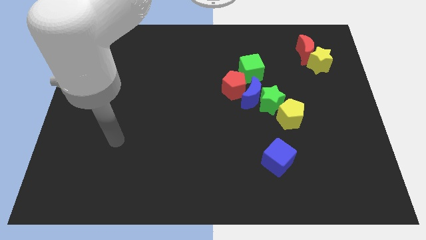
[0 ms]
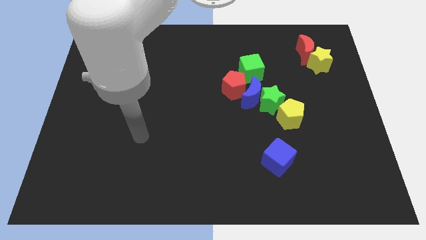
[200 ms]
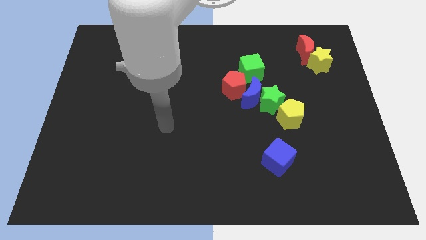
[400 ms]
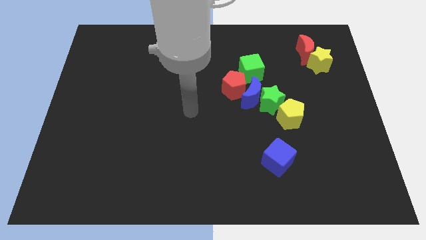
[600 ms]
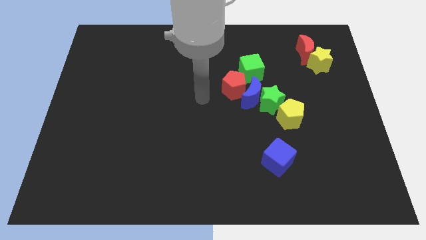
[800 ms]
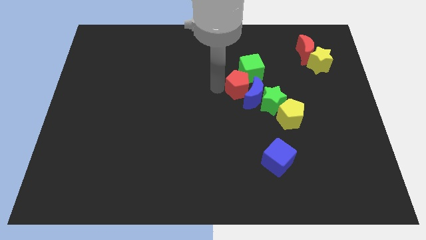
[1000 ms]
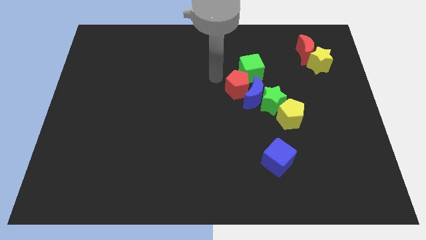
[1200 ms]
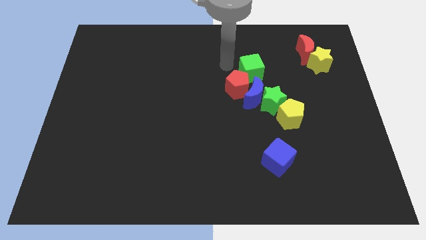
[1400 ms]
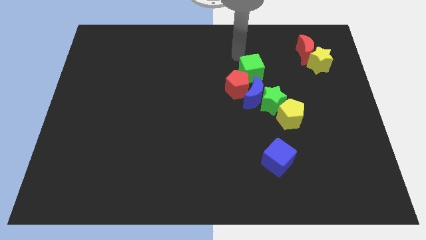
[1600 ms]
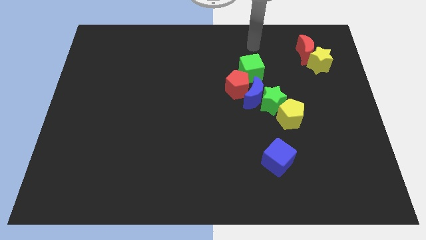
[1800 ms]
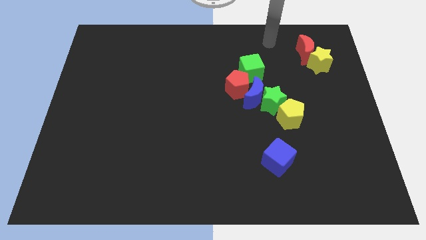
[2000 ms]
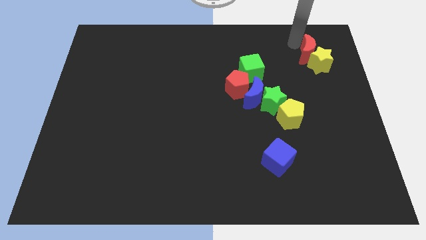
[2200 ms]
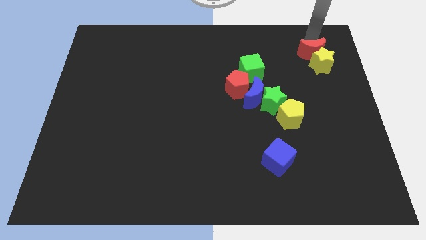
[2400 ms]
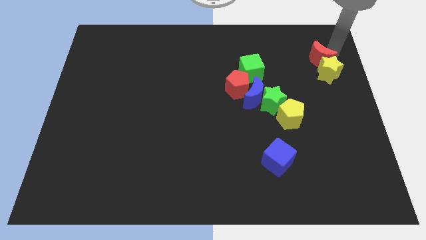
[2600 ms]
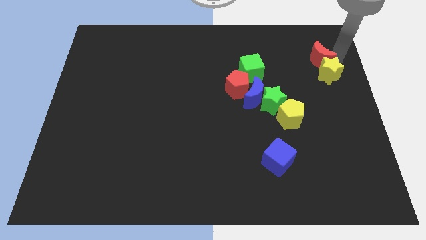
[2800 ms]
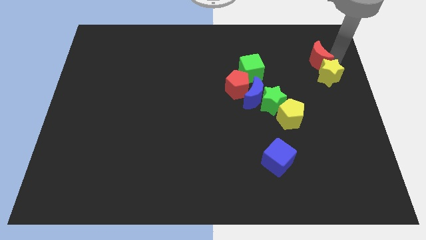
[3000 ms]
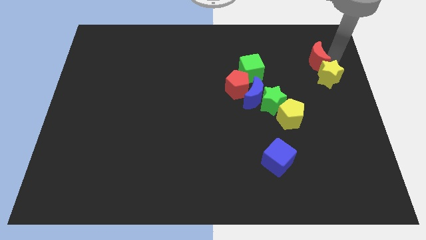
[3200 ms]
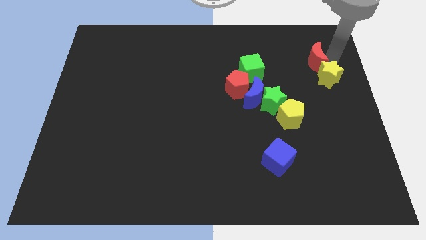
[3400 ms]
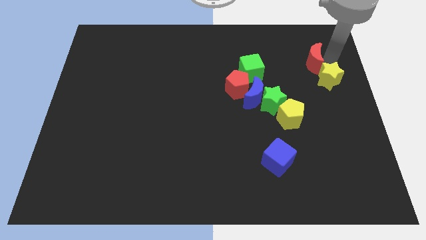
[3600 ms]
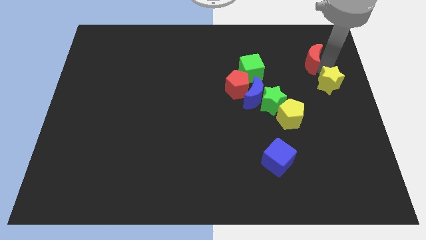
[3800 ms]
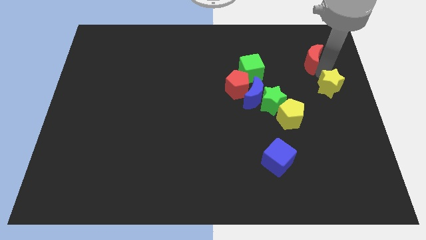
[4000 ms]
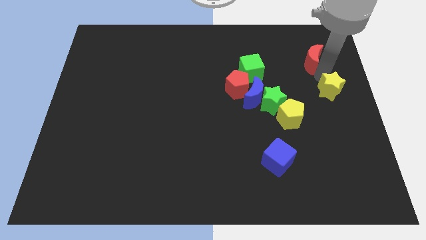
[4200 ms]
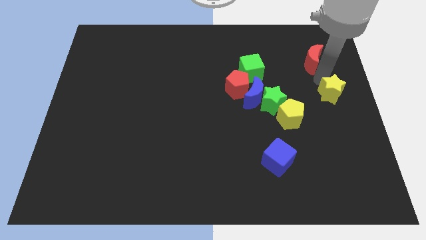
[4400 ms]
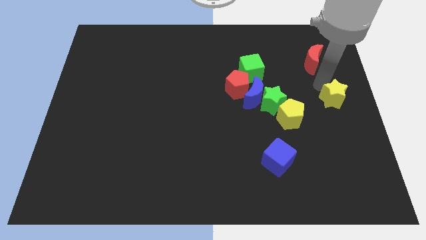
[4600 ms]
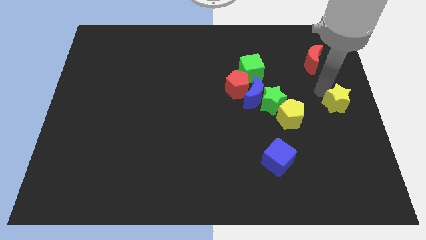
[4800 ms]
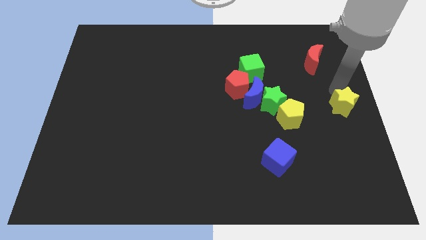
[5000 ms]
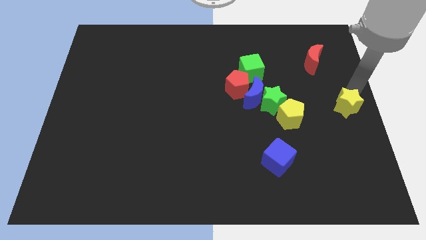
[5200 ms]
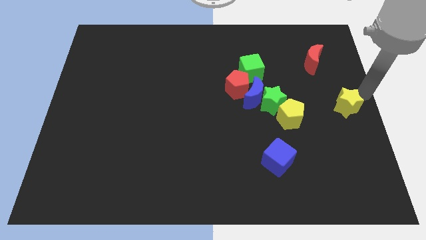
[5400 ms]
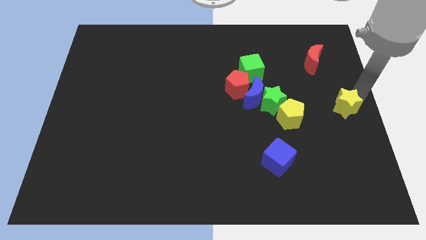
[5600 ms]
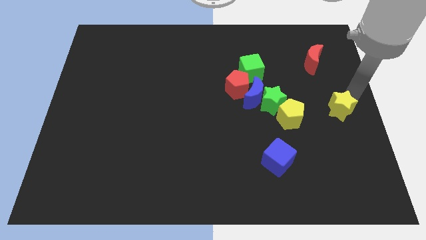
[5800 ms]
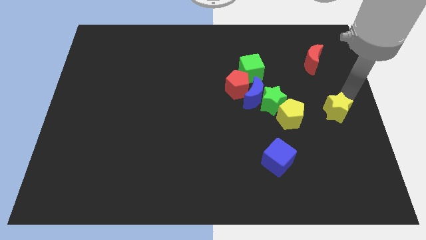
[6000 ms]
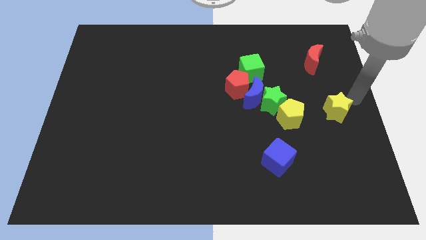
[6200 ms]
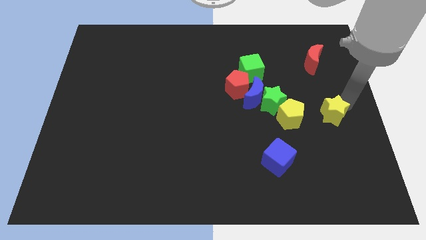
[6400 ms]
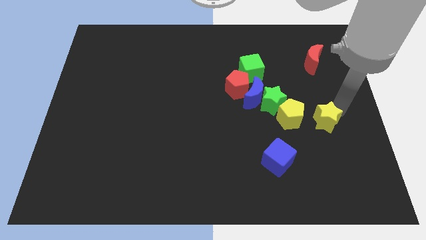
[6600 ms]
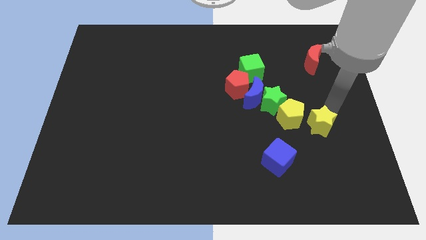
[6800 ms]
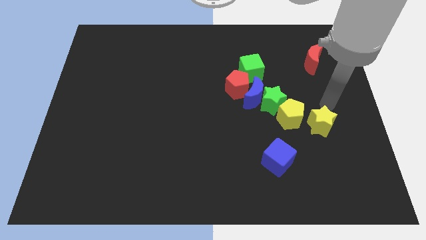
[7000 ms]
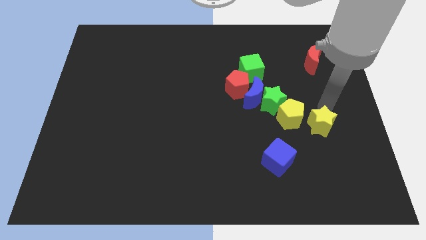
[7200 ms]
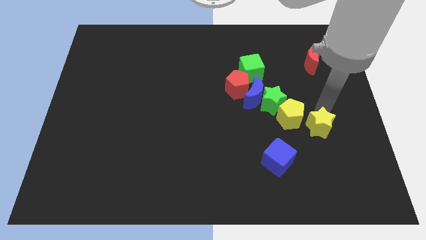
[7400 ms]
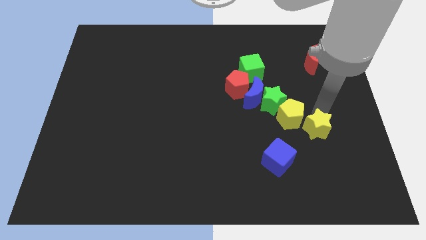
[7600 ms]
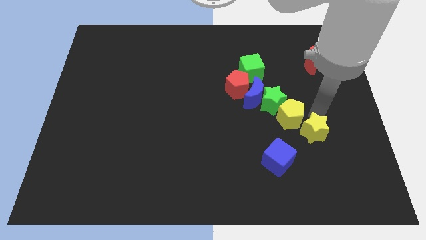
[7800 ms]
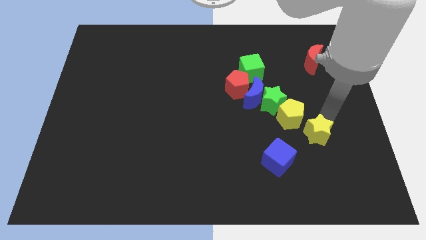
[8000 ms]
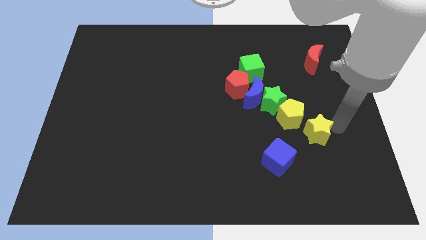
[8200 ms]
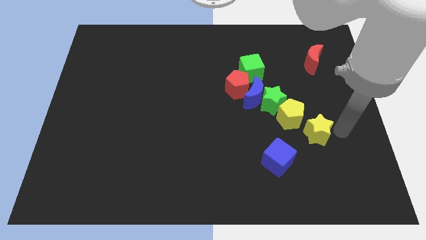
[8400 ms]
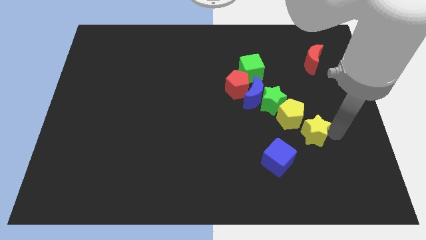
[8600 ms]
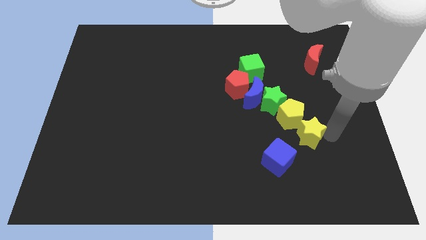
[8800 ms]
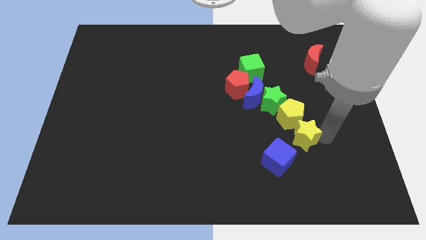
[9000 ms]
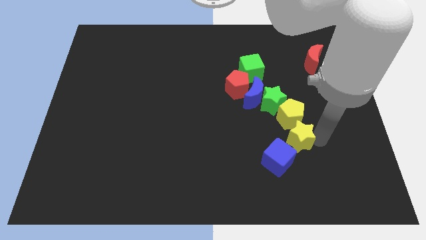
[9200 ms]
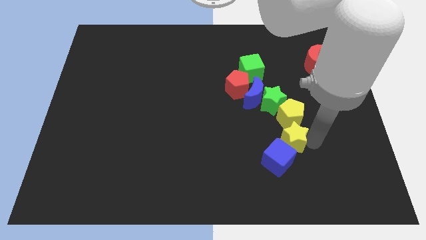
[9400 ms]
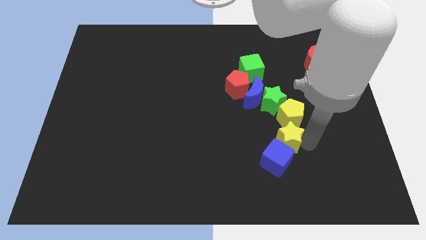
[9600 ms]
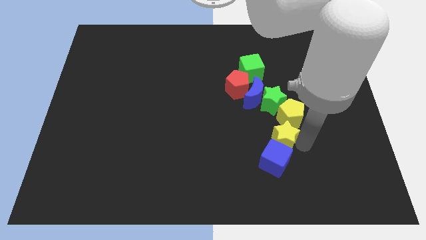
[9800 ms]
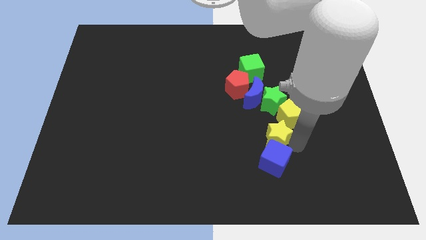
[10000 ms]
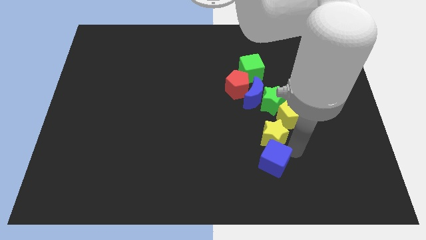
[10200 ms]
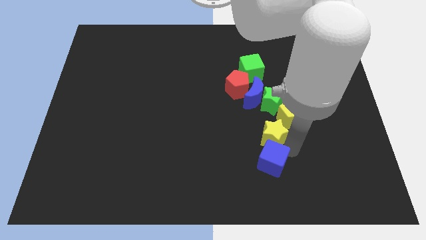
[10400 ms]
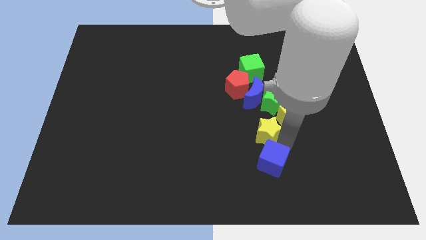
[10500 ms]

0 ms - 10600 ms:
slide the yellow star left of the yellow pentagon

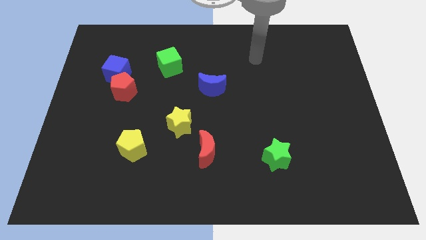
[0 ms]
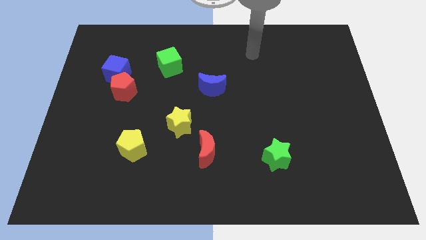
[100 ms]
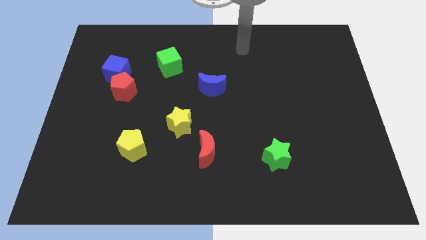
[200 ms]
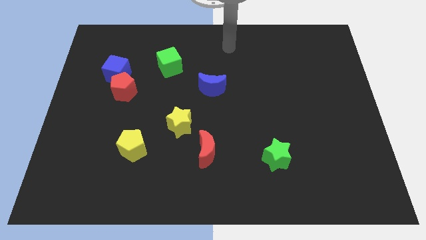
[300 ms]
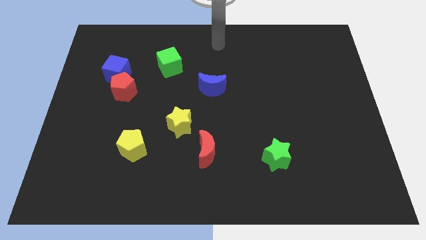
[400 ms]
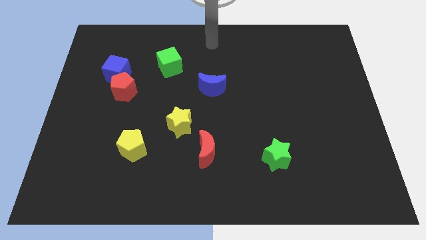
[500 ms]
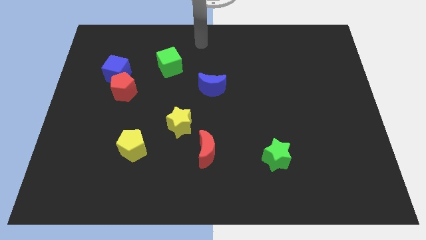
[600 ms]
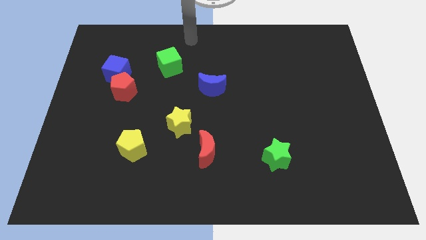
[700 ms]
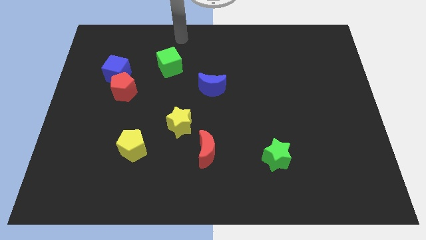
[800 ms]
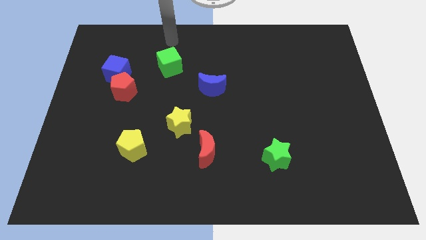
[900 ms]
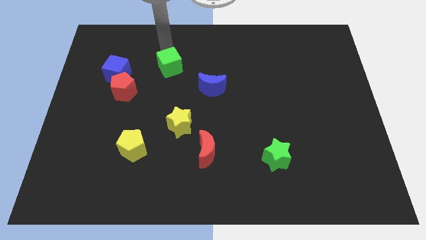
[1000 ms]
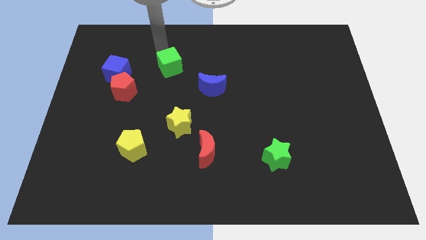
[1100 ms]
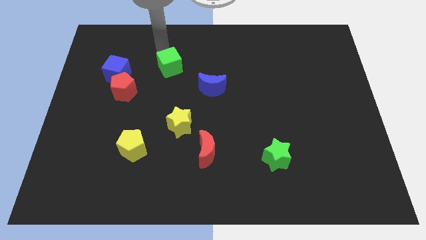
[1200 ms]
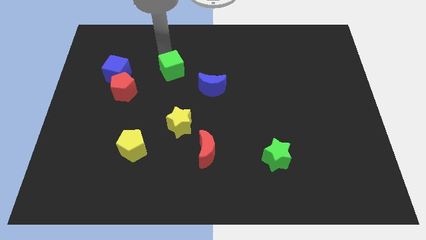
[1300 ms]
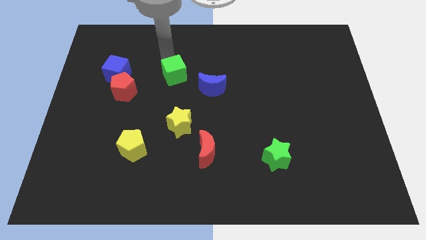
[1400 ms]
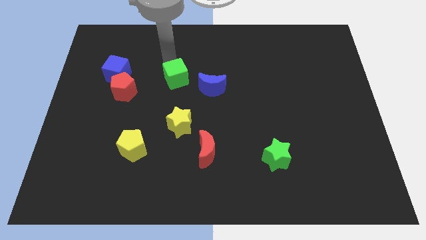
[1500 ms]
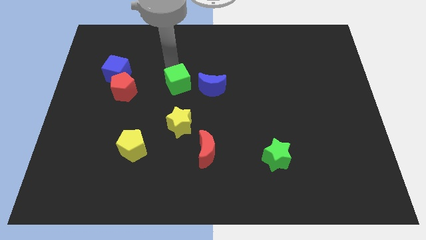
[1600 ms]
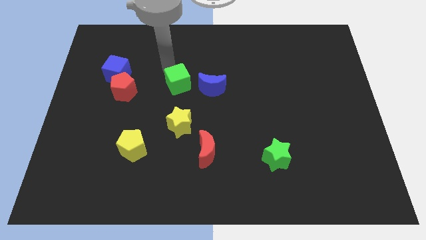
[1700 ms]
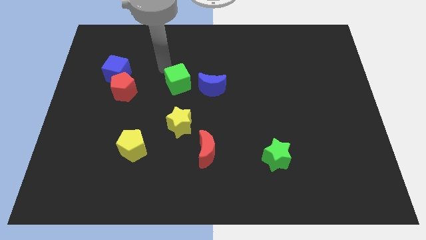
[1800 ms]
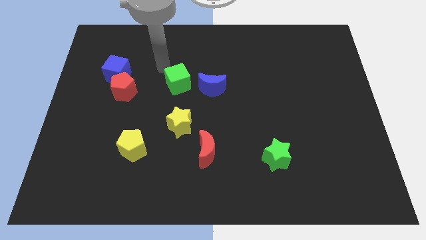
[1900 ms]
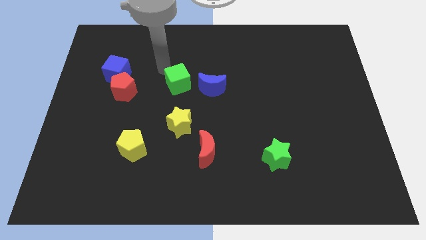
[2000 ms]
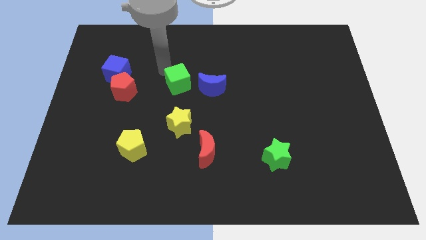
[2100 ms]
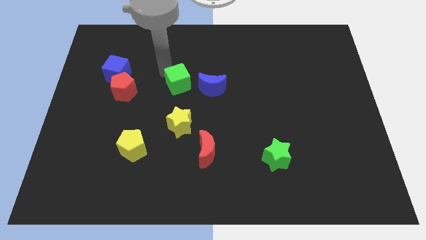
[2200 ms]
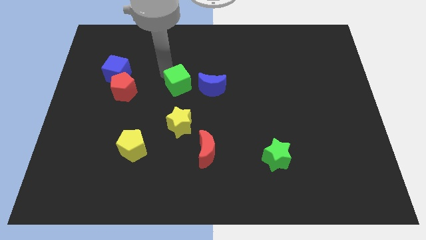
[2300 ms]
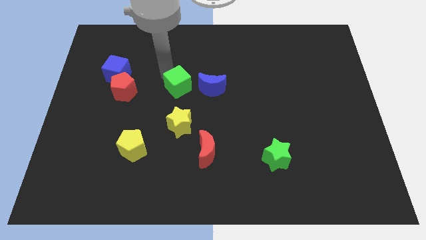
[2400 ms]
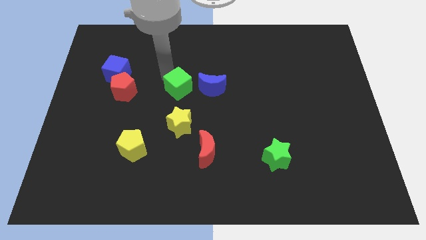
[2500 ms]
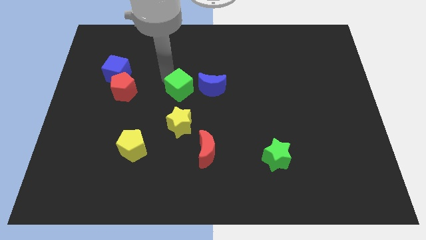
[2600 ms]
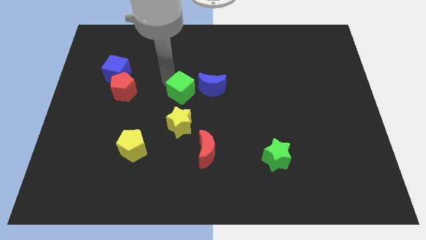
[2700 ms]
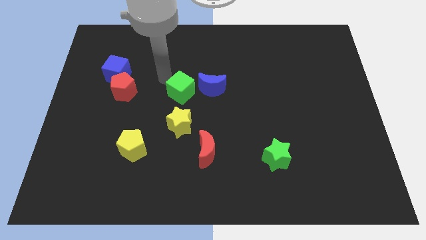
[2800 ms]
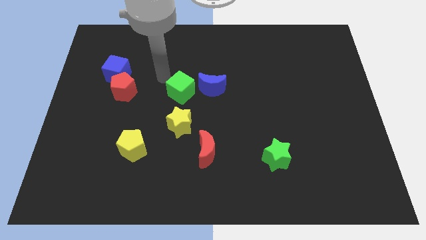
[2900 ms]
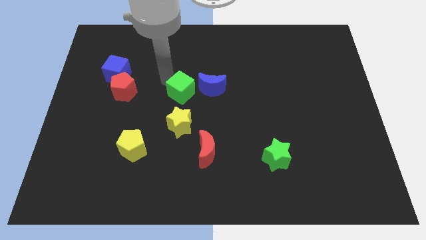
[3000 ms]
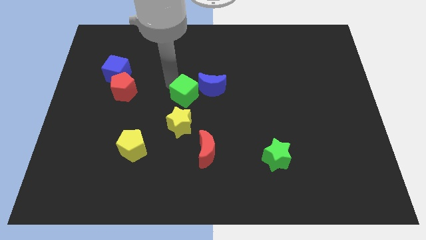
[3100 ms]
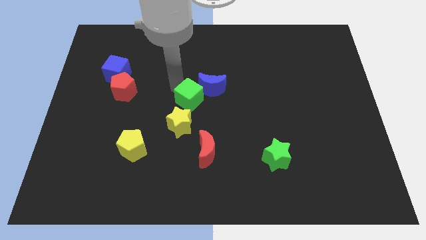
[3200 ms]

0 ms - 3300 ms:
put the green cube to the top right side of the yellow star

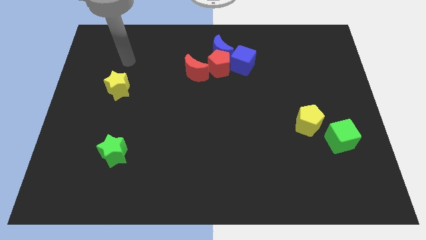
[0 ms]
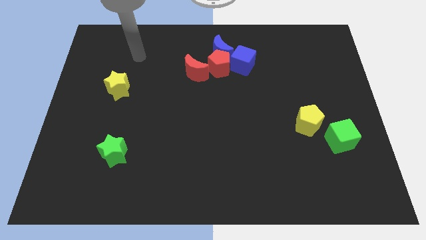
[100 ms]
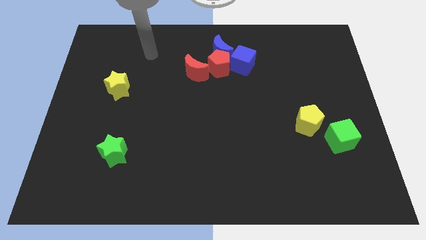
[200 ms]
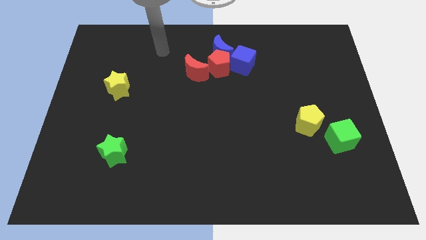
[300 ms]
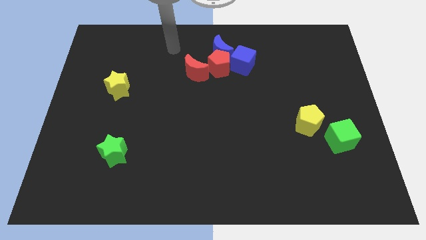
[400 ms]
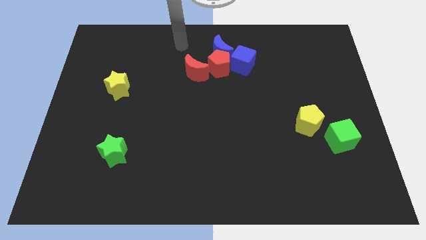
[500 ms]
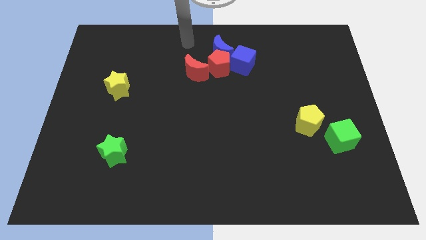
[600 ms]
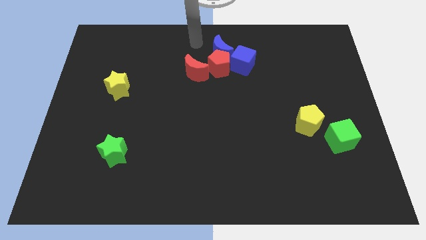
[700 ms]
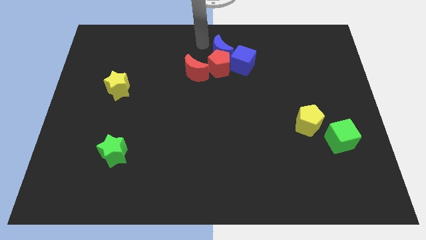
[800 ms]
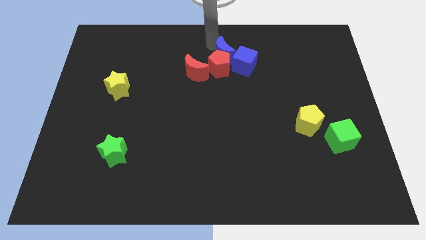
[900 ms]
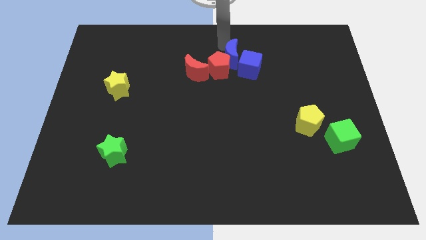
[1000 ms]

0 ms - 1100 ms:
slide the blue cube to the bottom side of the blue moon
